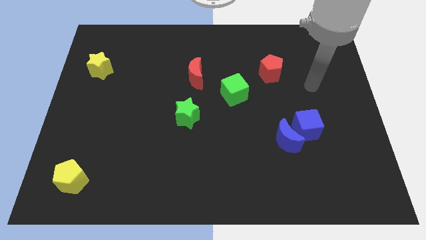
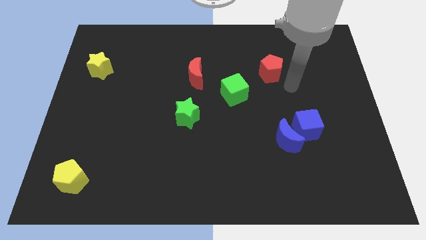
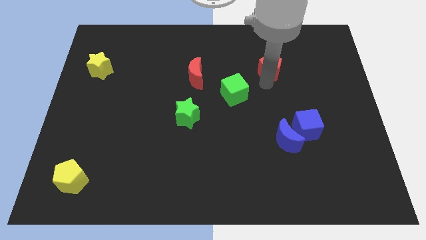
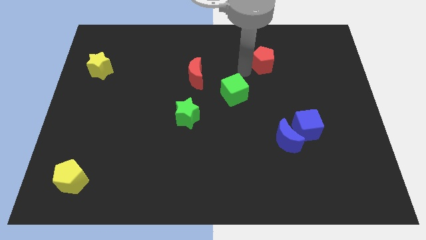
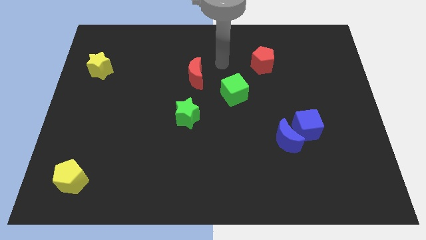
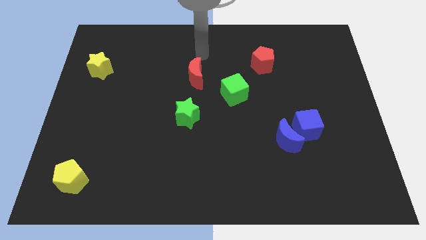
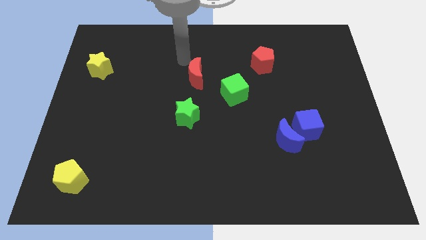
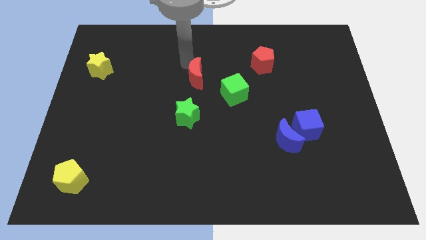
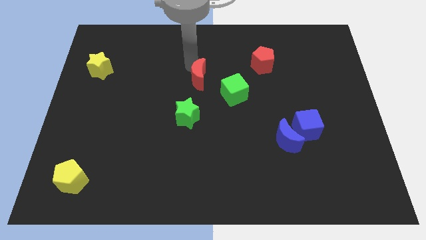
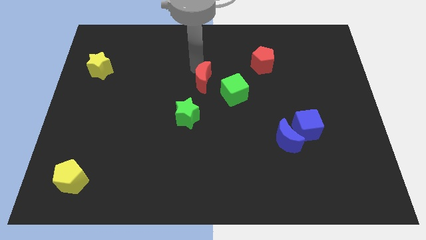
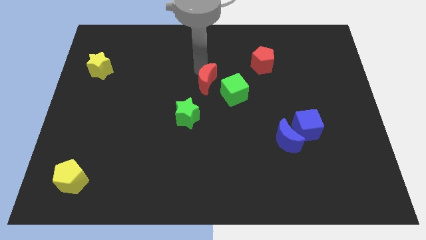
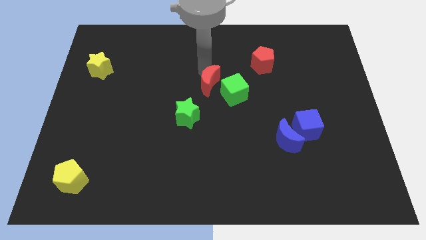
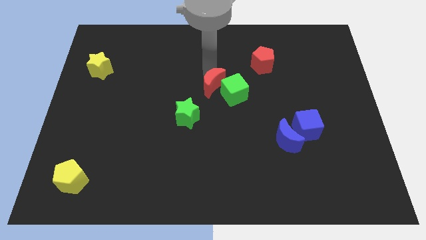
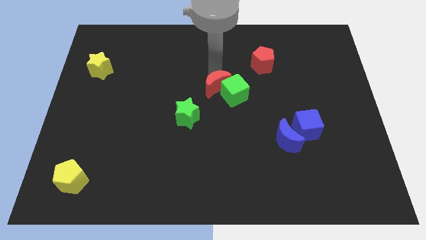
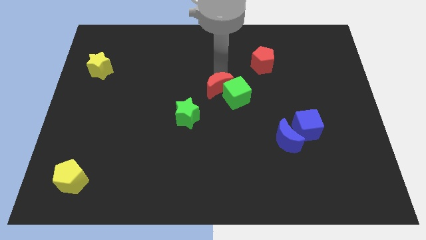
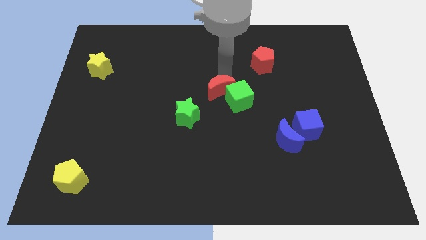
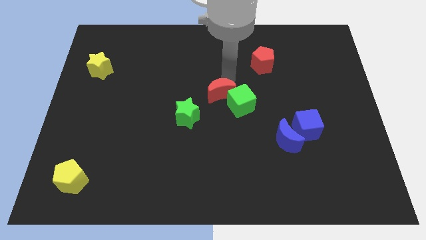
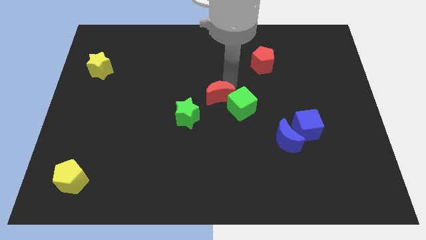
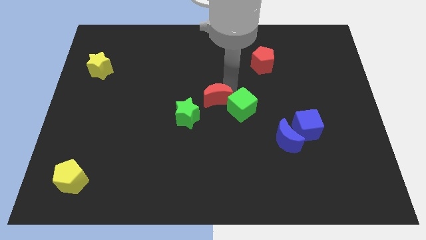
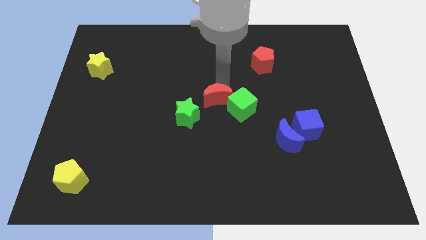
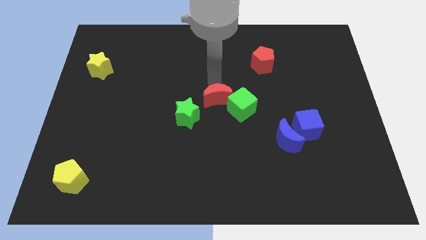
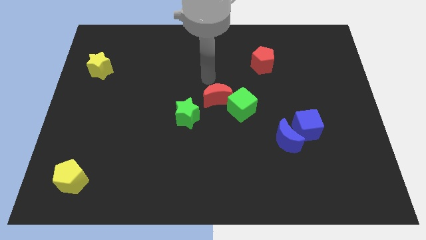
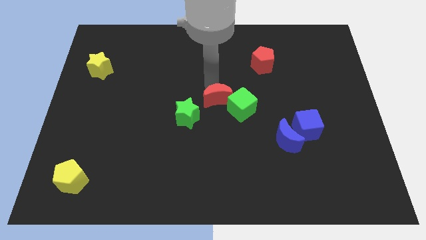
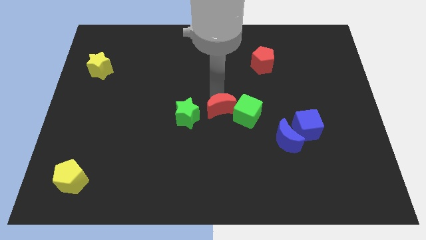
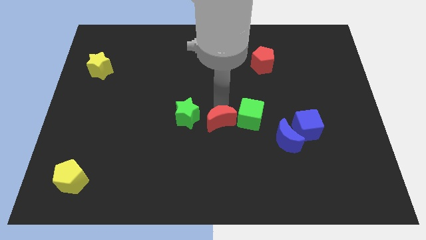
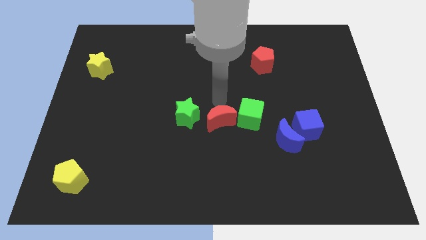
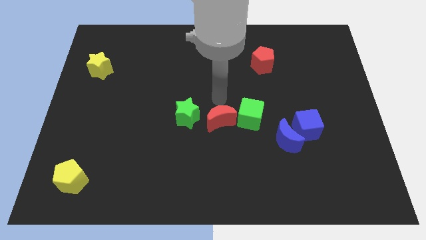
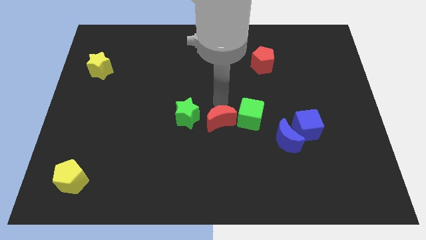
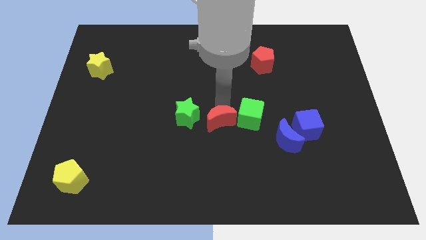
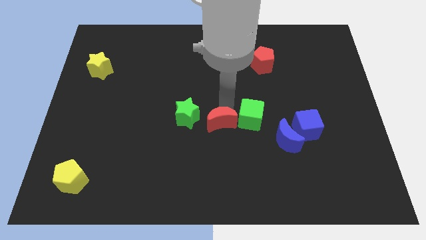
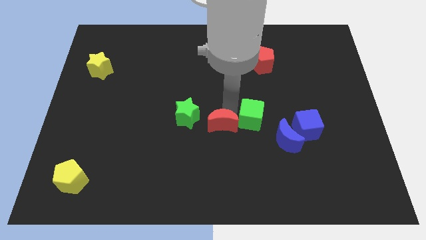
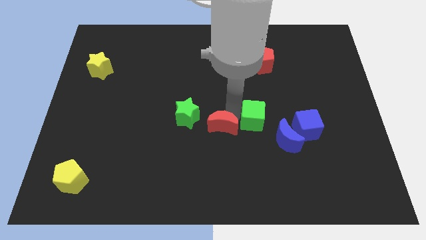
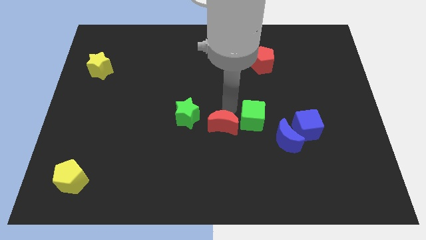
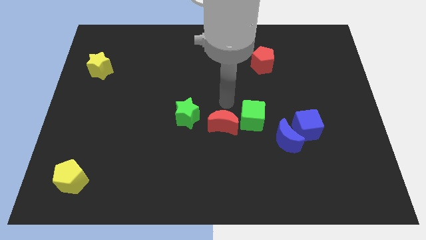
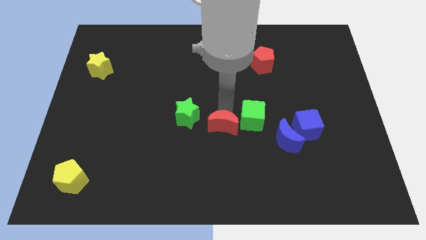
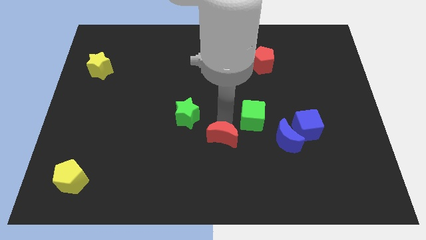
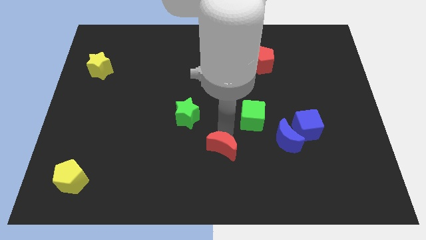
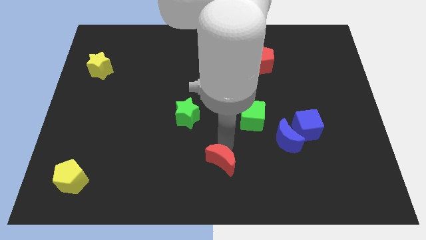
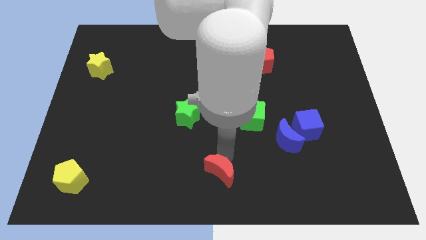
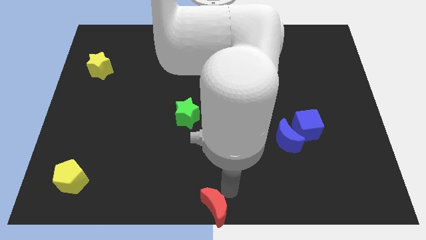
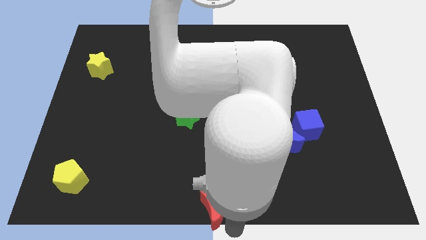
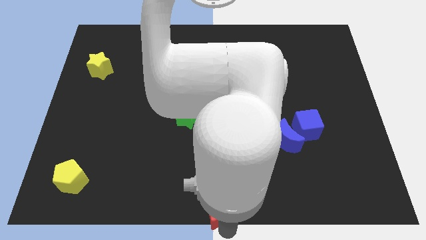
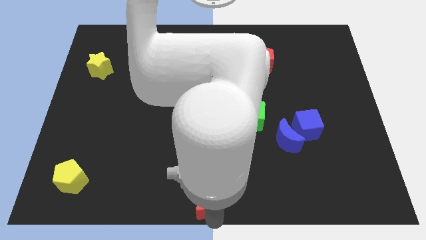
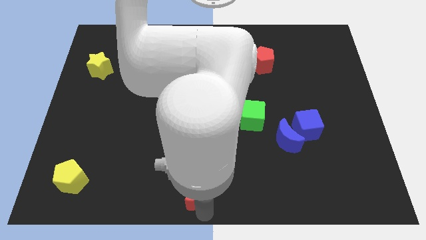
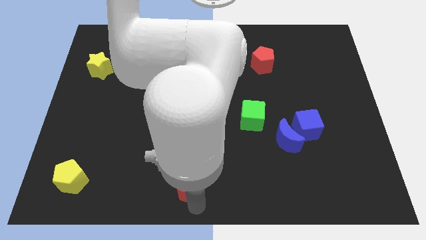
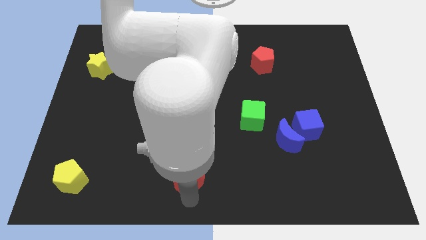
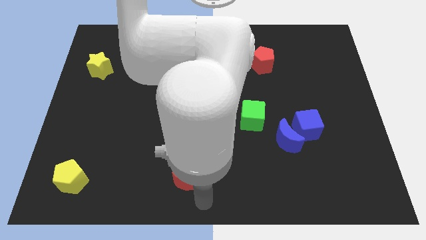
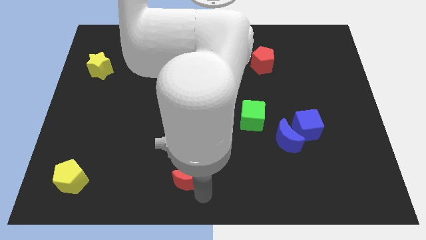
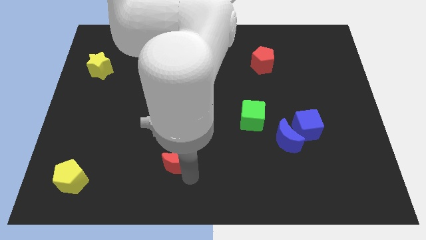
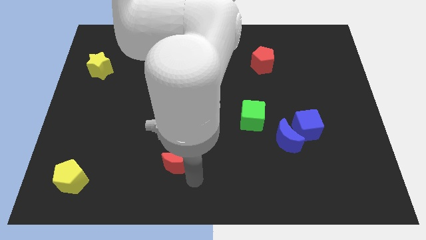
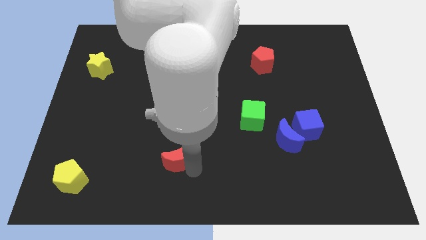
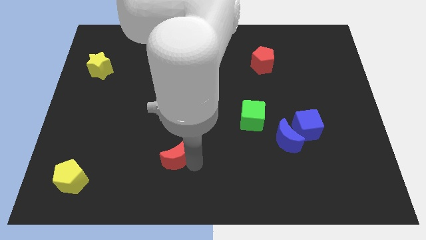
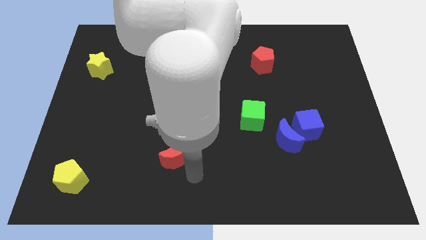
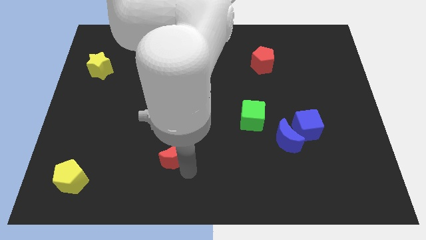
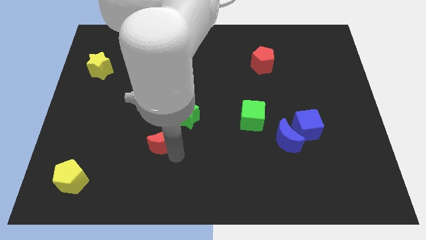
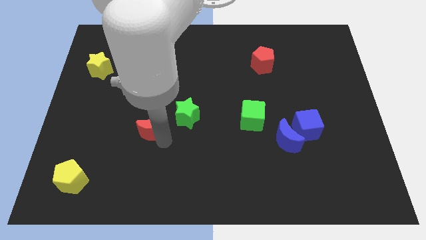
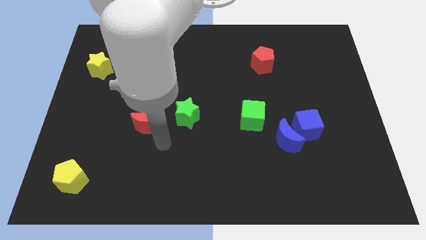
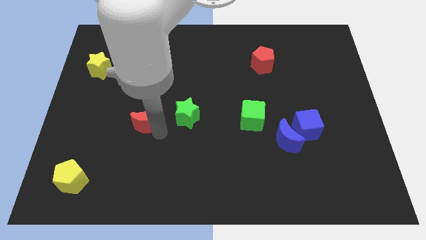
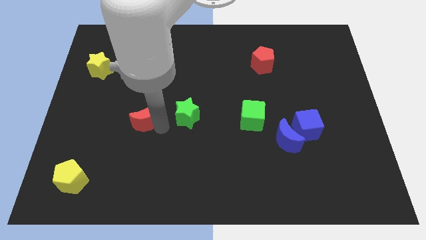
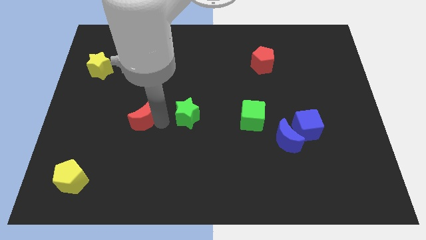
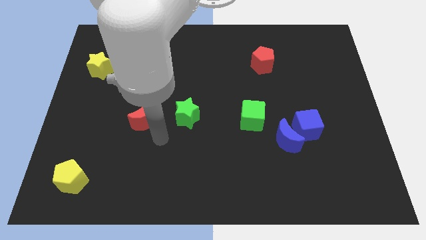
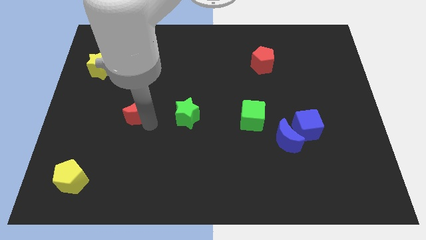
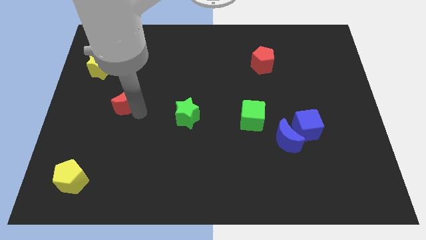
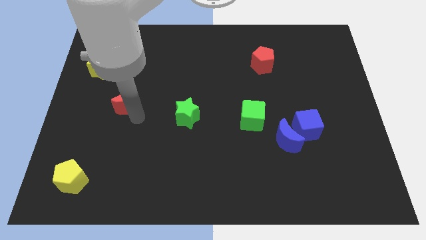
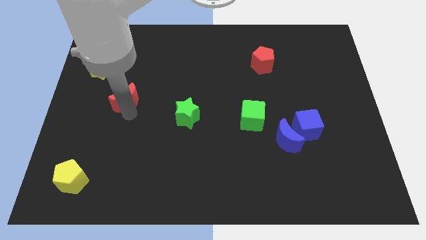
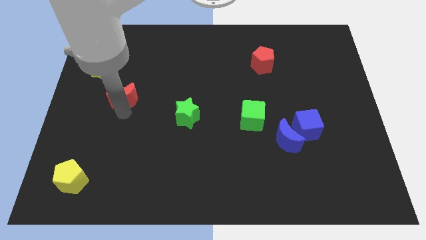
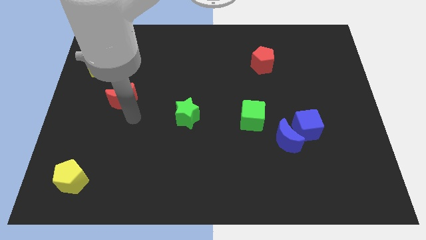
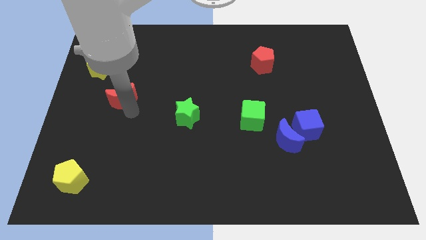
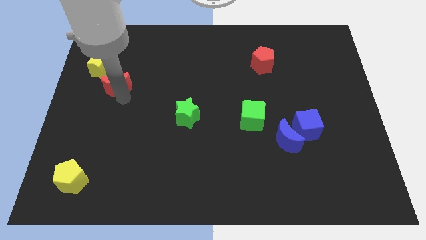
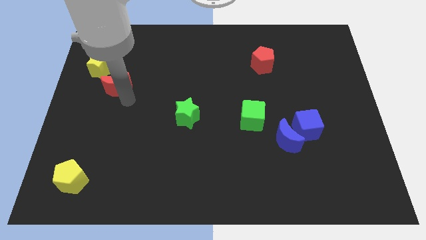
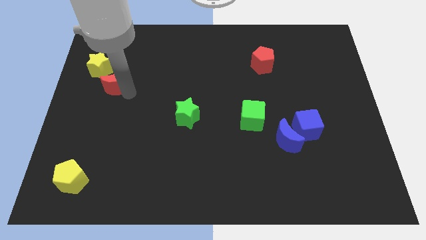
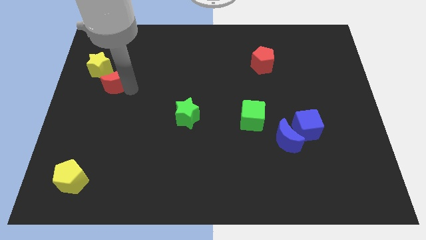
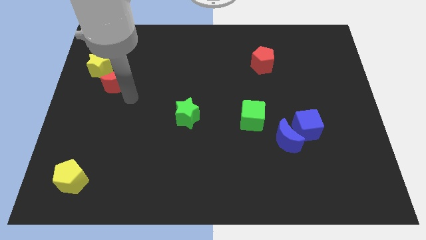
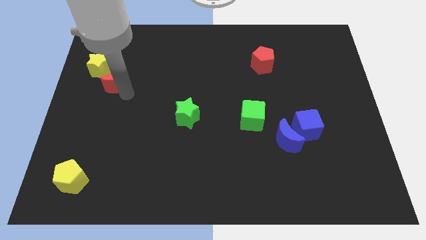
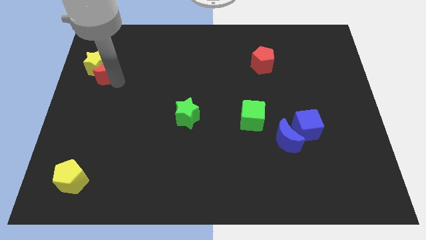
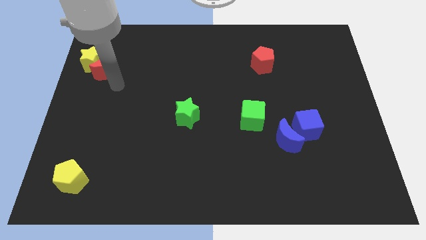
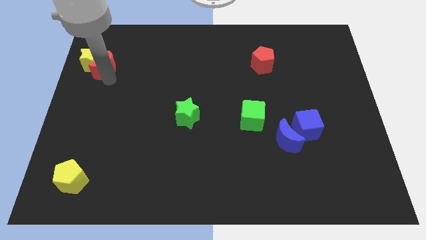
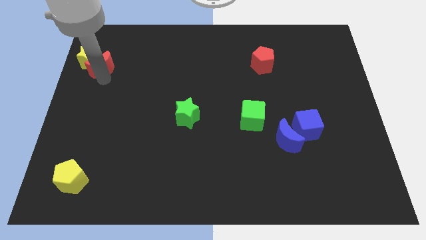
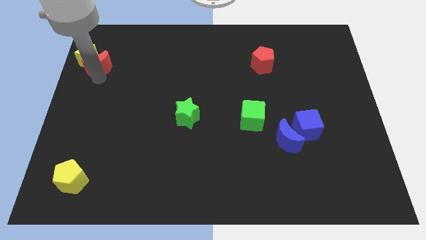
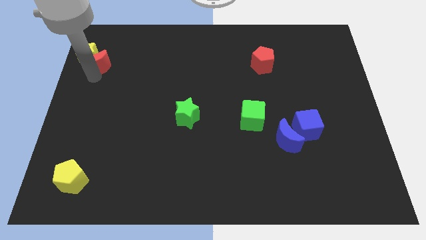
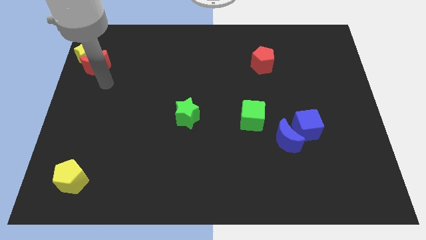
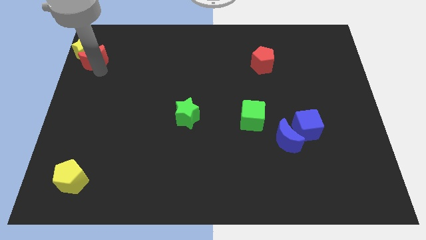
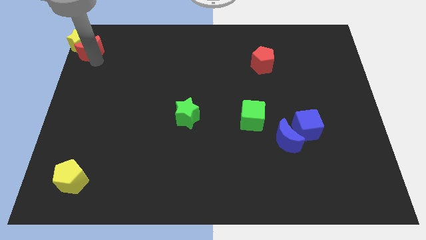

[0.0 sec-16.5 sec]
put the red moon to the upper left corner
